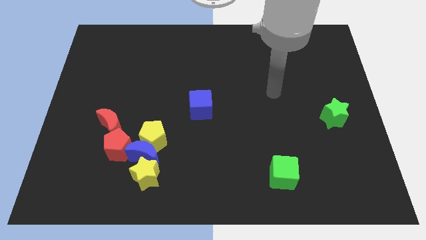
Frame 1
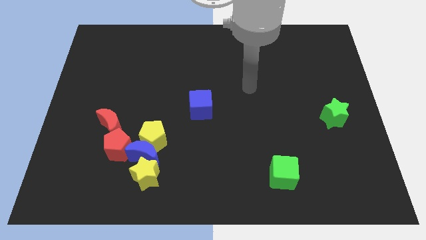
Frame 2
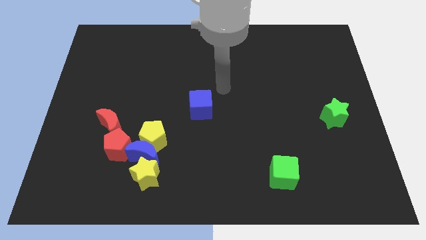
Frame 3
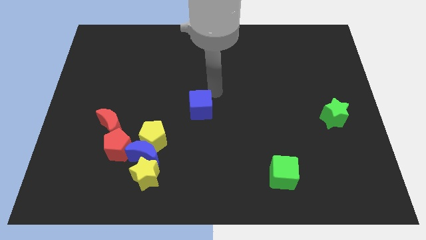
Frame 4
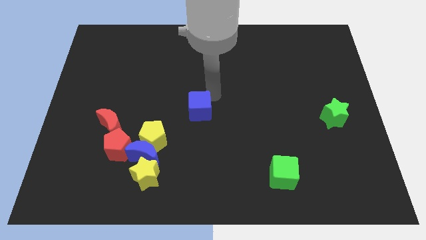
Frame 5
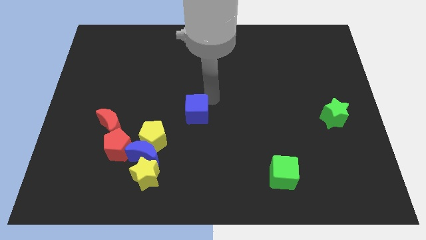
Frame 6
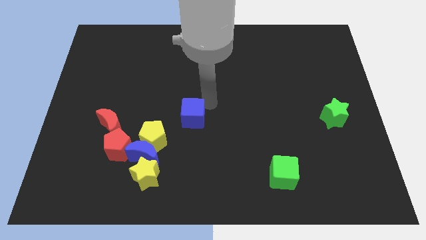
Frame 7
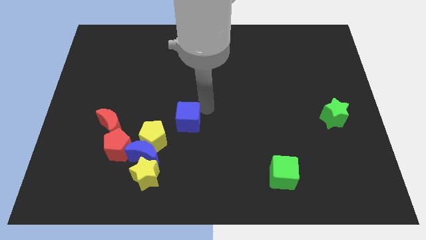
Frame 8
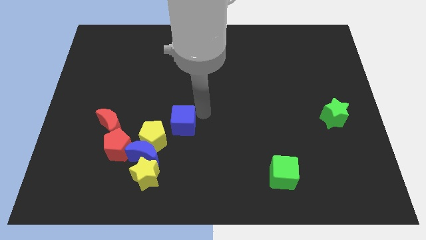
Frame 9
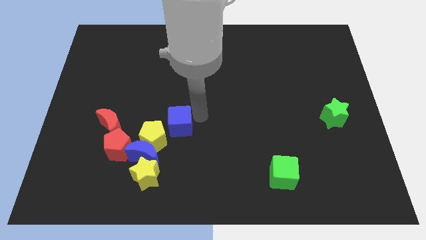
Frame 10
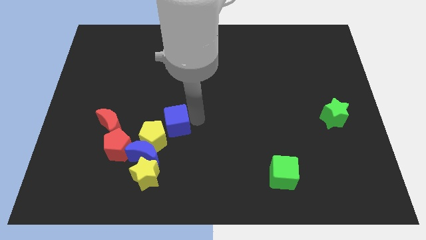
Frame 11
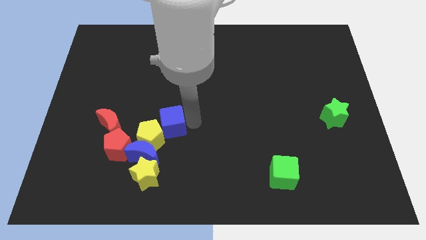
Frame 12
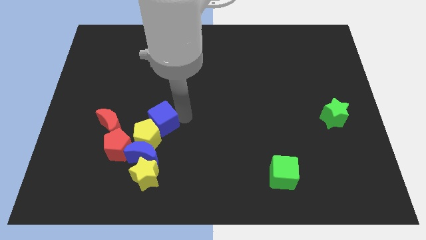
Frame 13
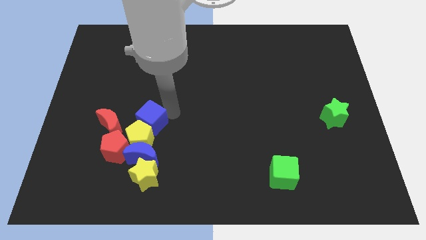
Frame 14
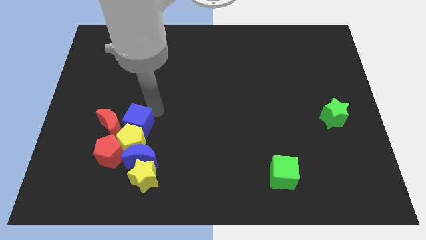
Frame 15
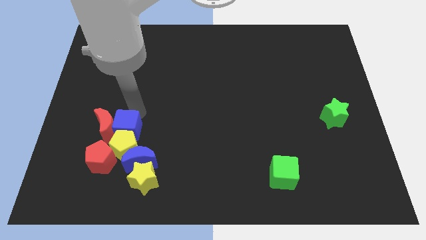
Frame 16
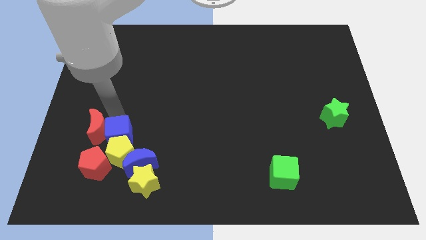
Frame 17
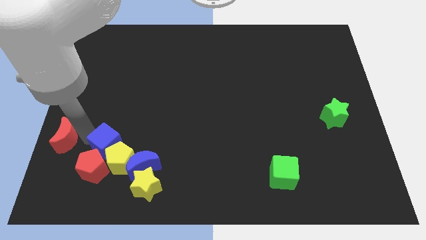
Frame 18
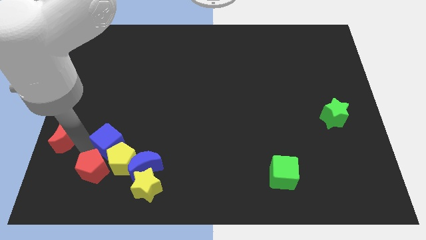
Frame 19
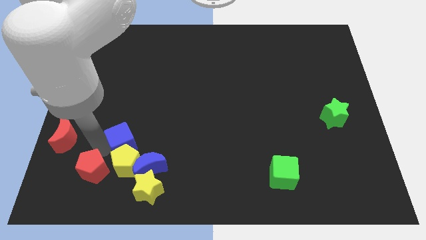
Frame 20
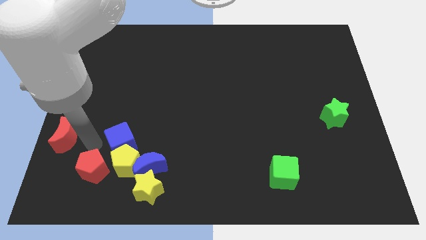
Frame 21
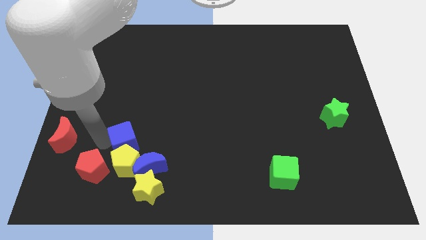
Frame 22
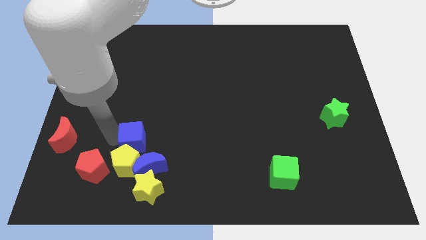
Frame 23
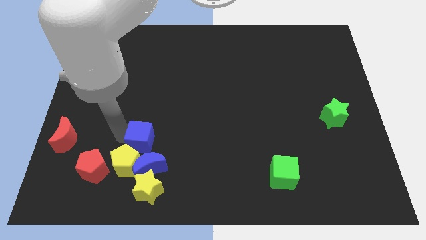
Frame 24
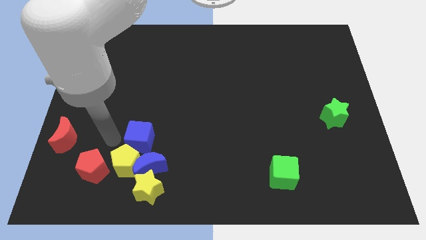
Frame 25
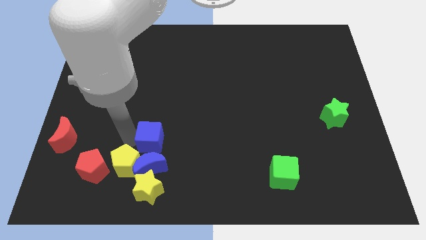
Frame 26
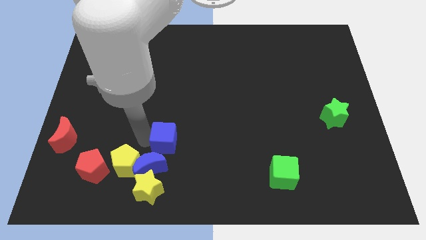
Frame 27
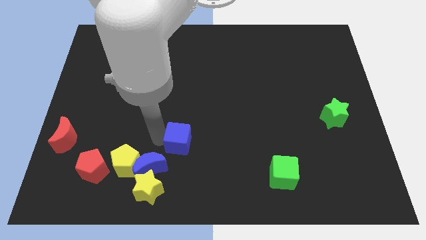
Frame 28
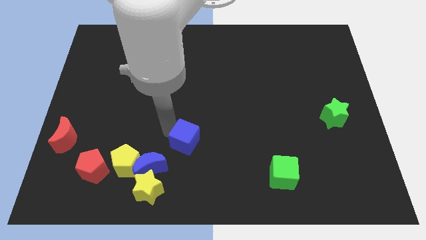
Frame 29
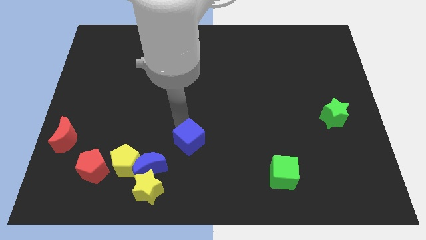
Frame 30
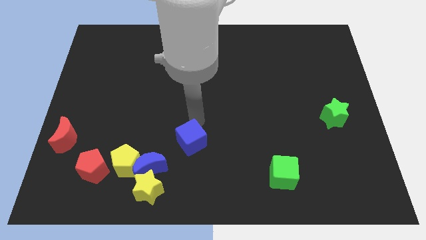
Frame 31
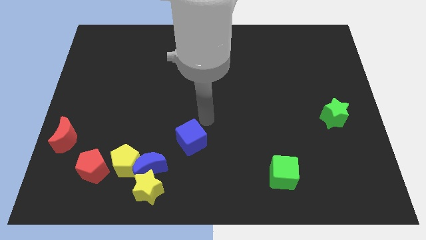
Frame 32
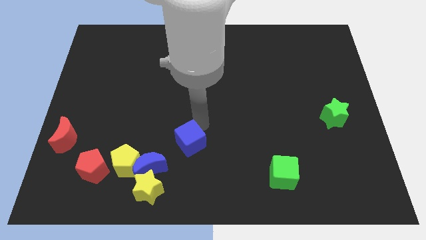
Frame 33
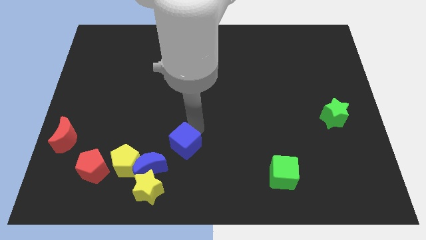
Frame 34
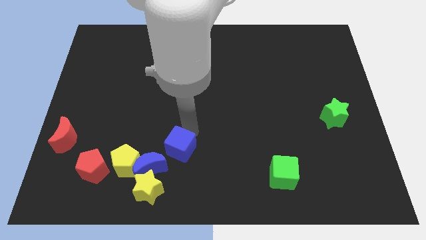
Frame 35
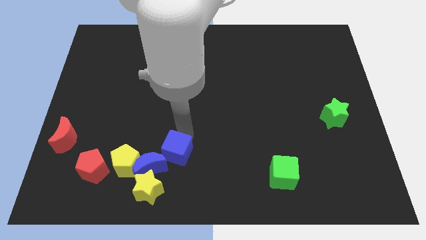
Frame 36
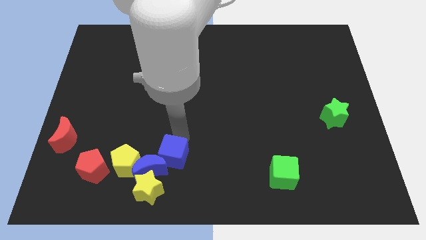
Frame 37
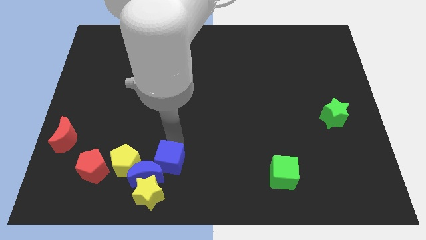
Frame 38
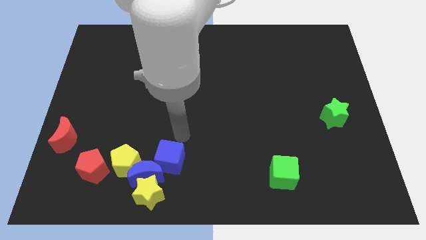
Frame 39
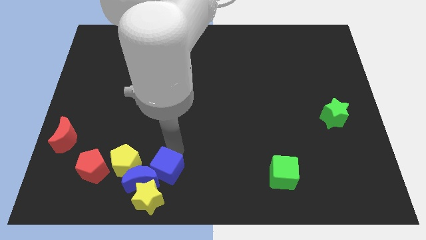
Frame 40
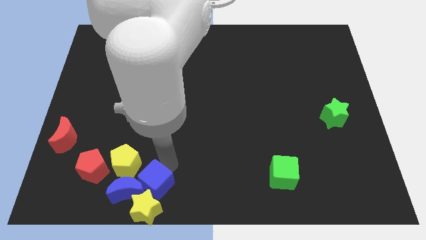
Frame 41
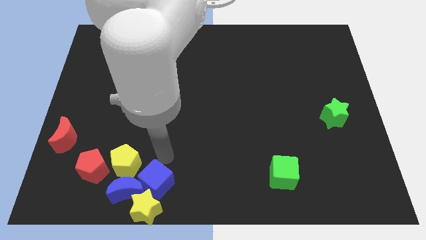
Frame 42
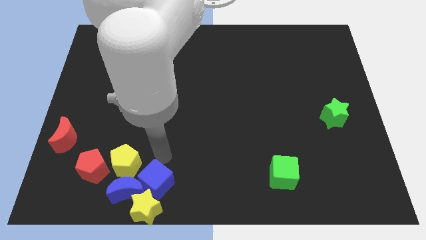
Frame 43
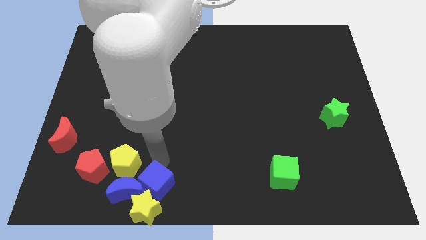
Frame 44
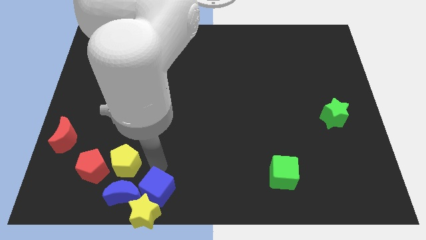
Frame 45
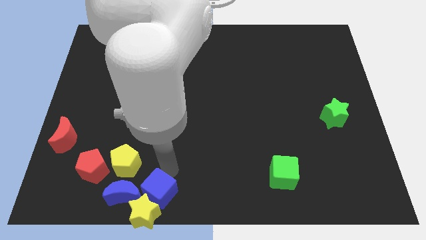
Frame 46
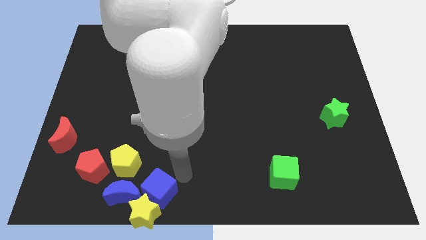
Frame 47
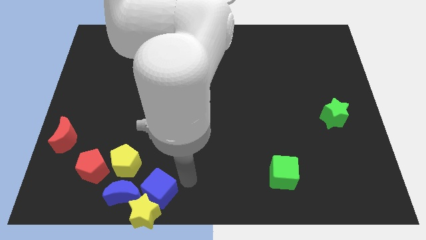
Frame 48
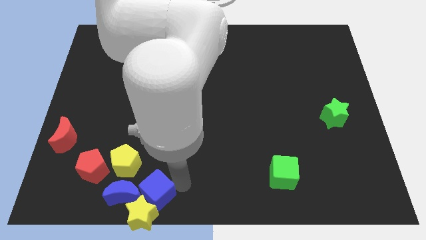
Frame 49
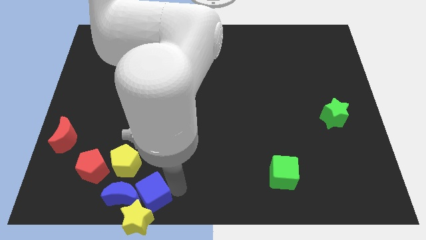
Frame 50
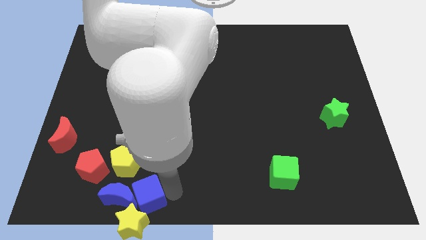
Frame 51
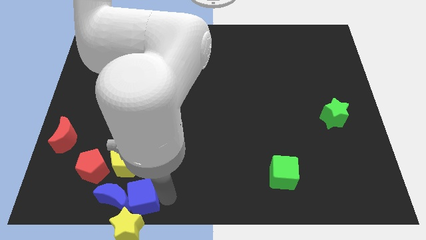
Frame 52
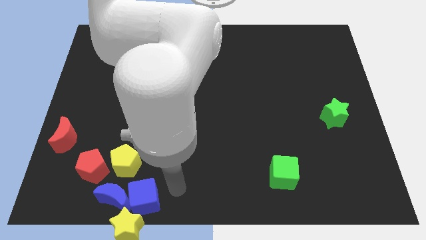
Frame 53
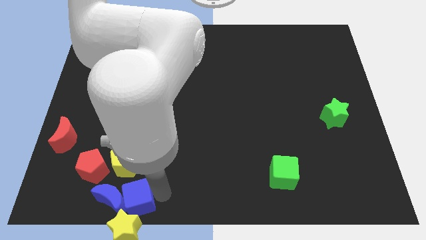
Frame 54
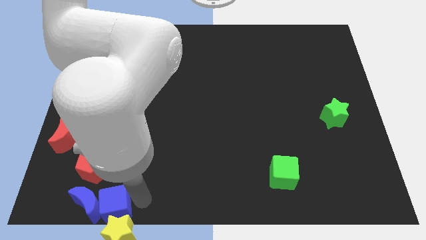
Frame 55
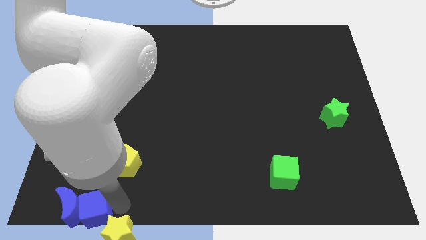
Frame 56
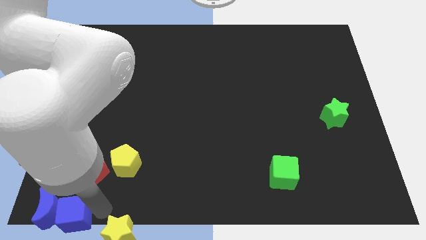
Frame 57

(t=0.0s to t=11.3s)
slide the blue cube to the bottom left corner
